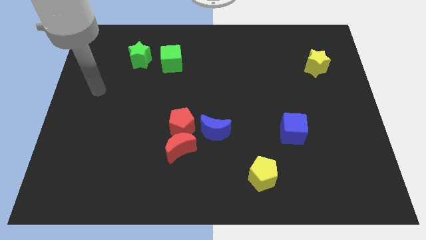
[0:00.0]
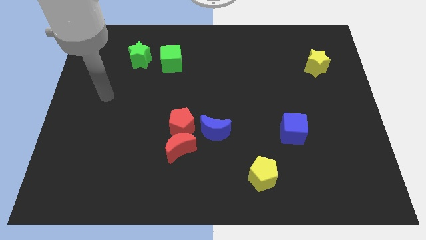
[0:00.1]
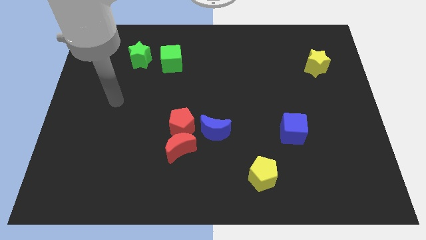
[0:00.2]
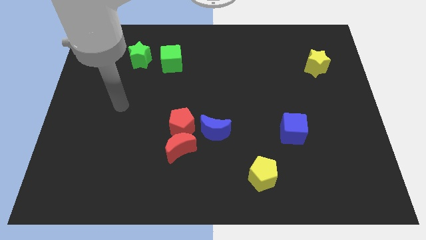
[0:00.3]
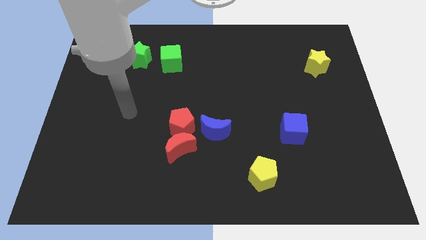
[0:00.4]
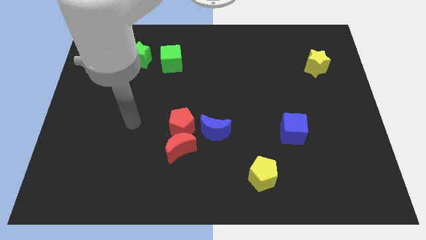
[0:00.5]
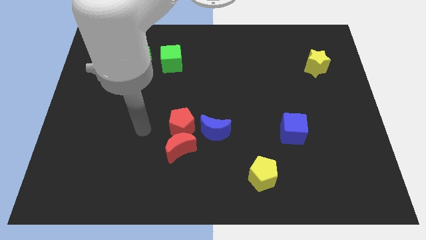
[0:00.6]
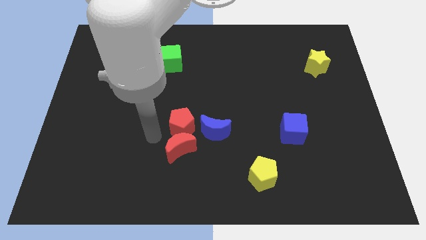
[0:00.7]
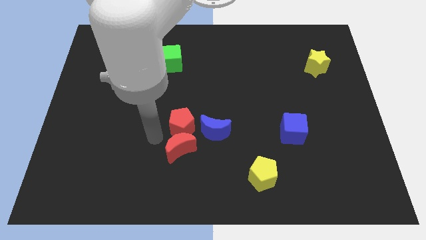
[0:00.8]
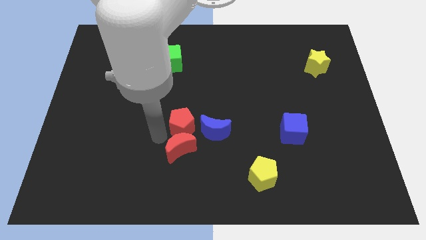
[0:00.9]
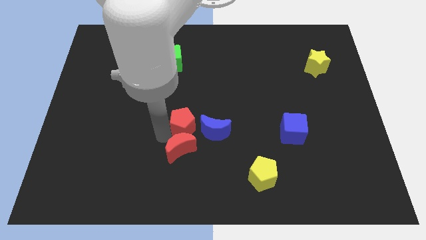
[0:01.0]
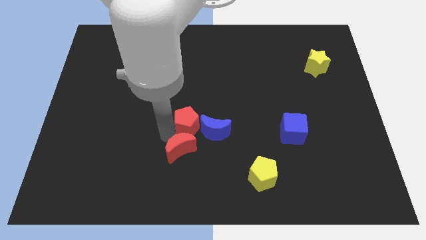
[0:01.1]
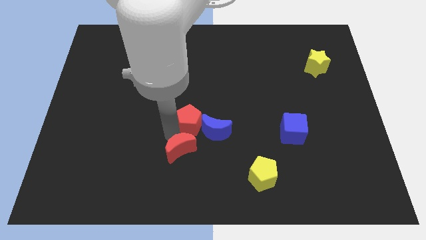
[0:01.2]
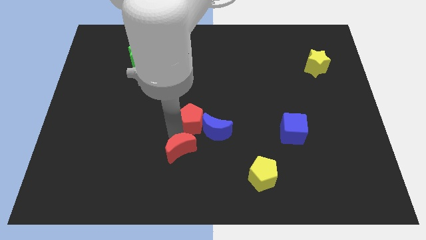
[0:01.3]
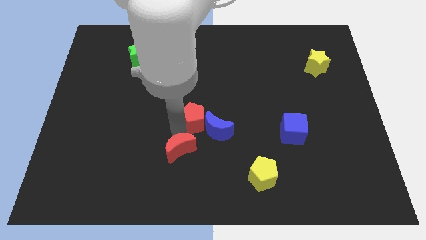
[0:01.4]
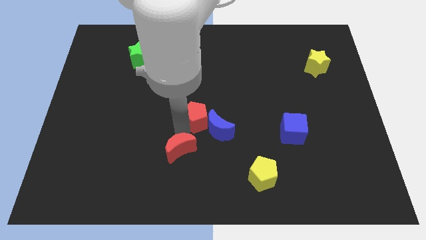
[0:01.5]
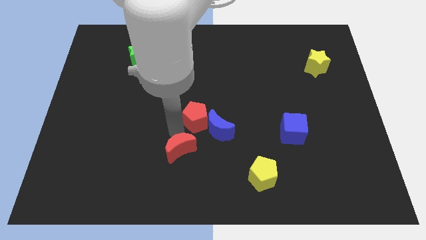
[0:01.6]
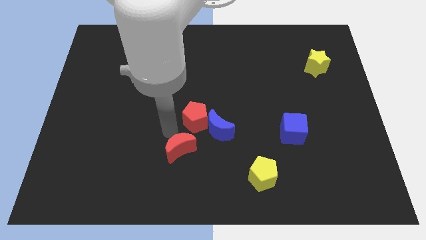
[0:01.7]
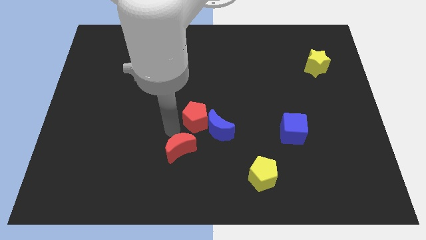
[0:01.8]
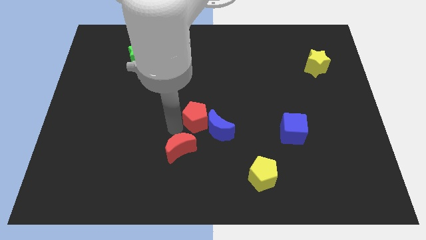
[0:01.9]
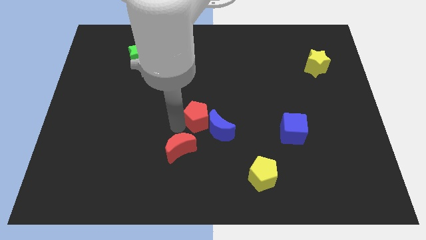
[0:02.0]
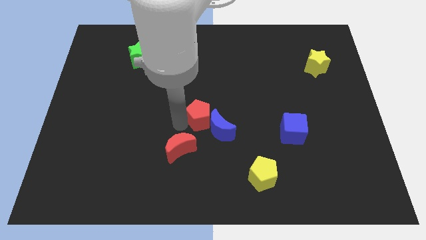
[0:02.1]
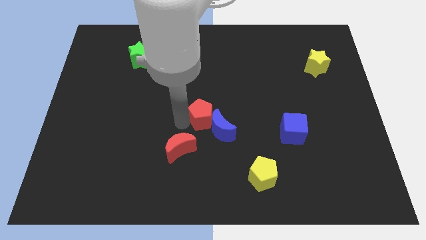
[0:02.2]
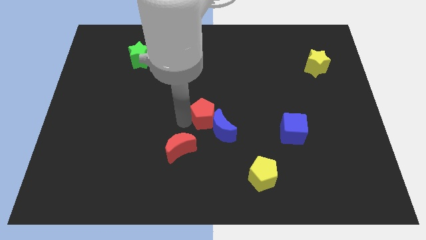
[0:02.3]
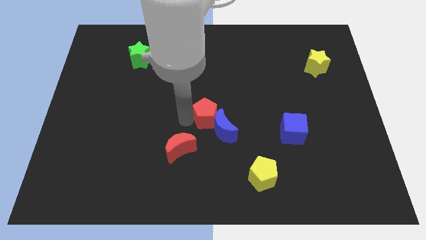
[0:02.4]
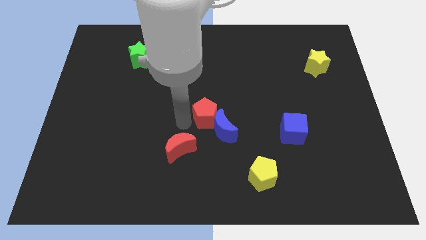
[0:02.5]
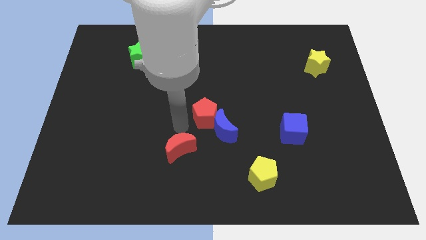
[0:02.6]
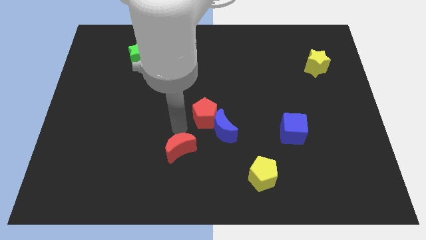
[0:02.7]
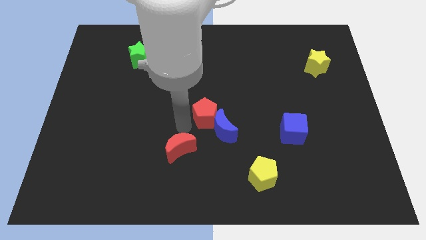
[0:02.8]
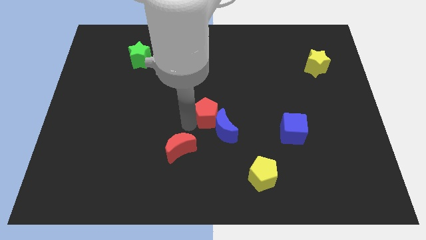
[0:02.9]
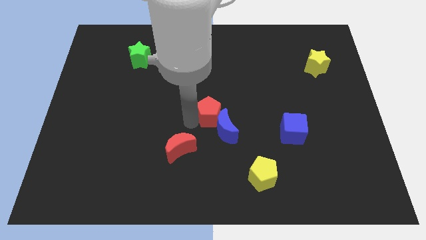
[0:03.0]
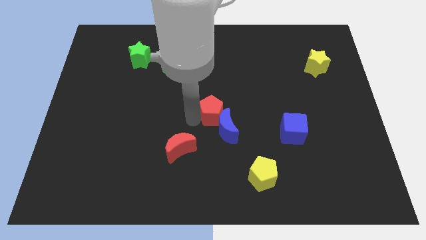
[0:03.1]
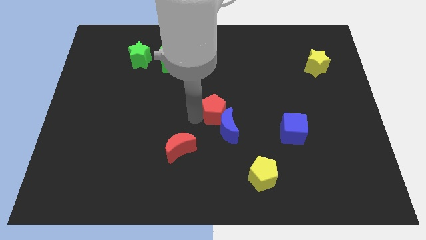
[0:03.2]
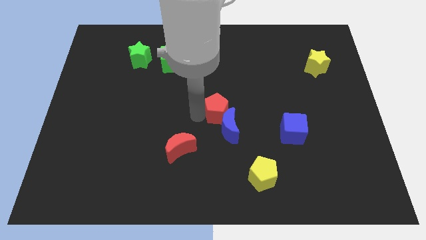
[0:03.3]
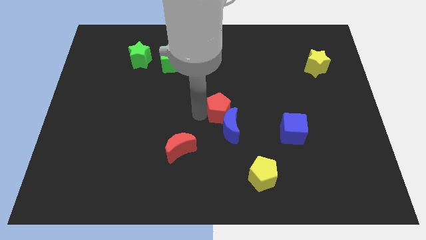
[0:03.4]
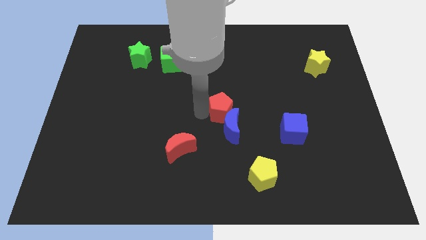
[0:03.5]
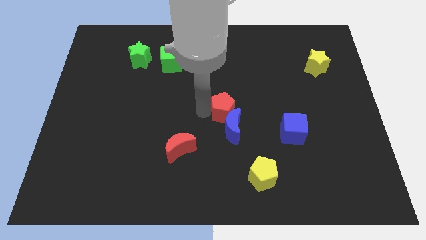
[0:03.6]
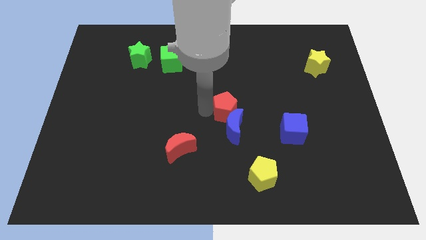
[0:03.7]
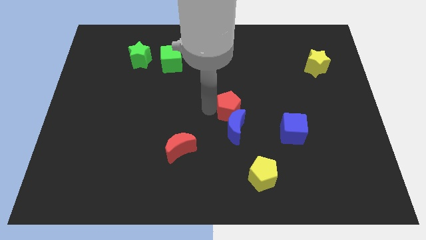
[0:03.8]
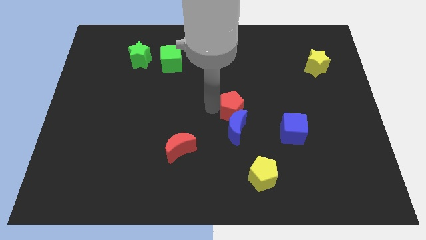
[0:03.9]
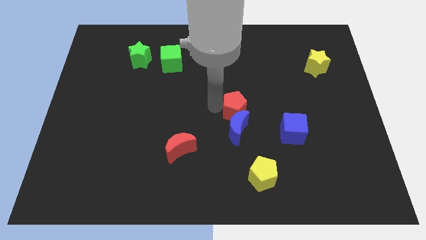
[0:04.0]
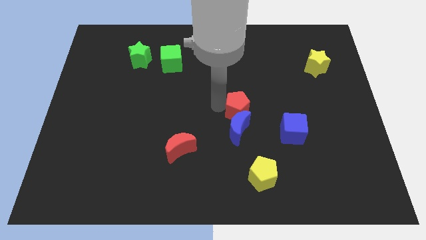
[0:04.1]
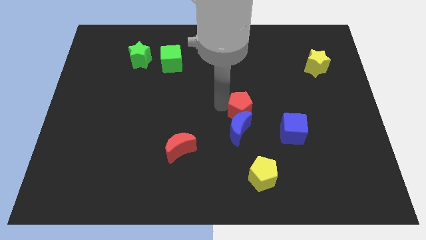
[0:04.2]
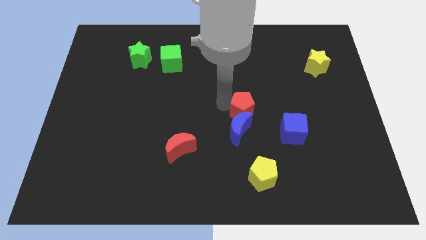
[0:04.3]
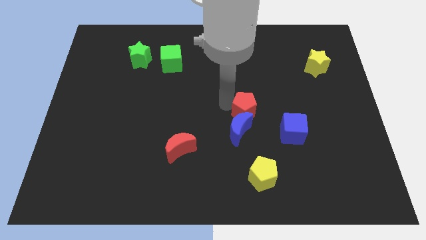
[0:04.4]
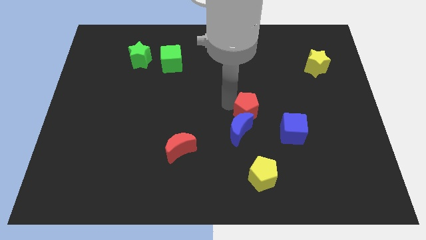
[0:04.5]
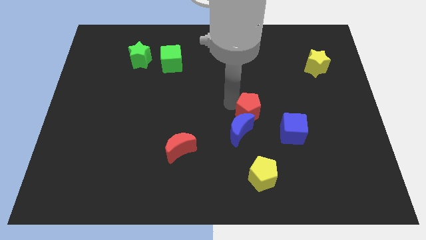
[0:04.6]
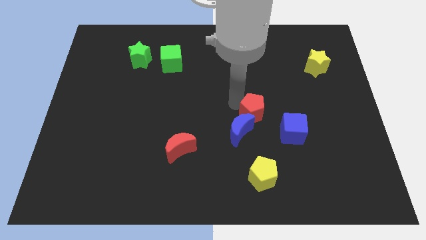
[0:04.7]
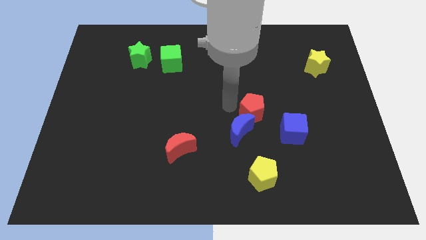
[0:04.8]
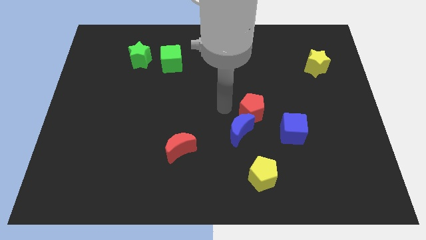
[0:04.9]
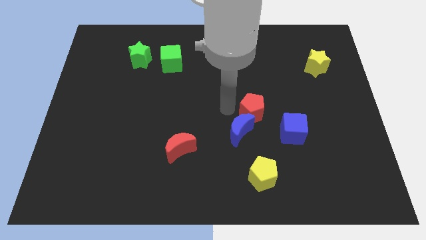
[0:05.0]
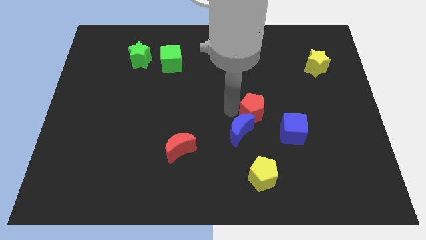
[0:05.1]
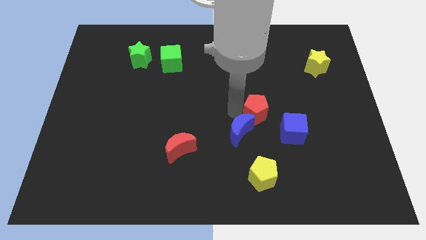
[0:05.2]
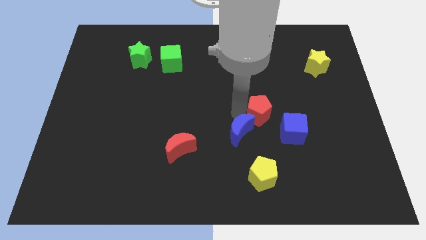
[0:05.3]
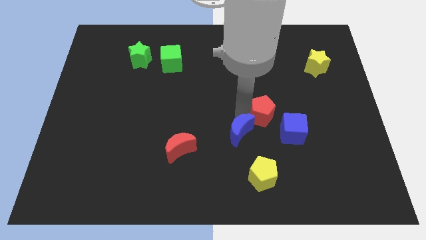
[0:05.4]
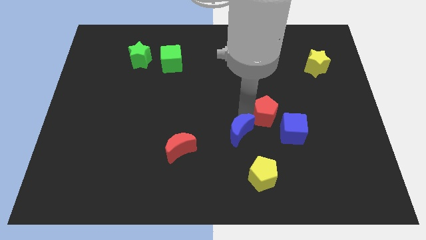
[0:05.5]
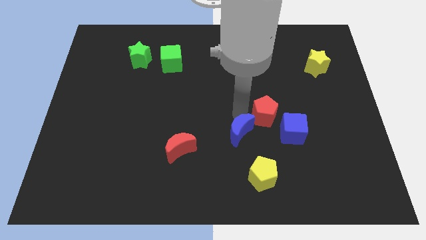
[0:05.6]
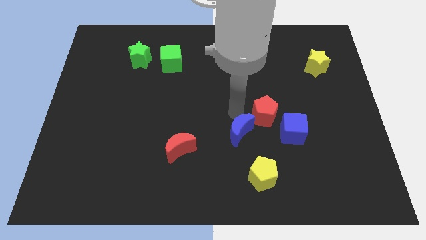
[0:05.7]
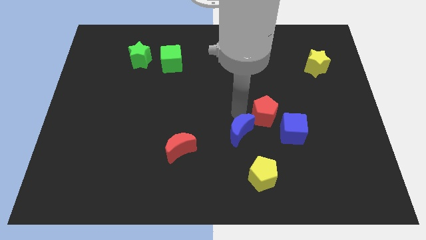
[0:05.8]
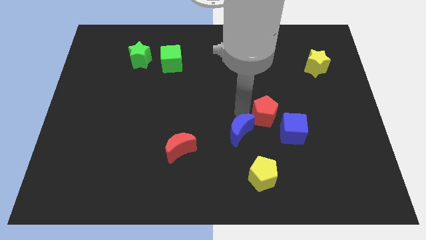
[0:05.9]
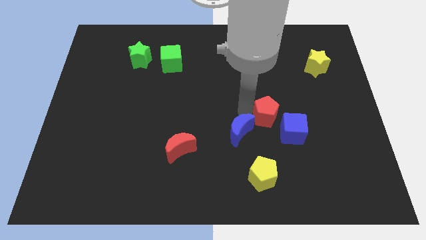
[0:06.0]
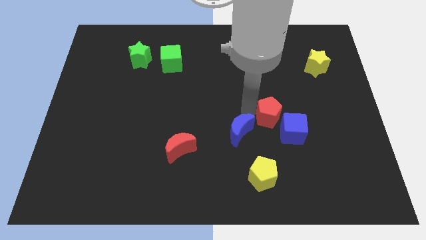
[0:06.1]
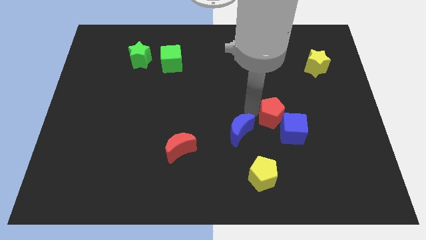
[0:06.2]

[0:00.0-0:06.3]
push the red pentagon to the right

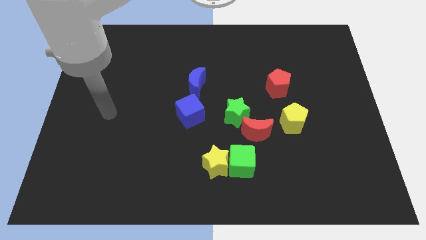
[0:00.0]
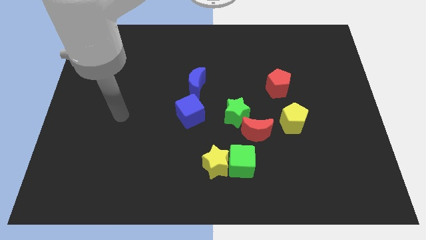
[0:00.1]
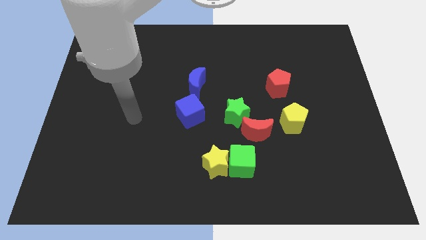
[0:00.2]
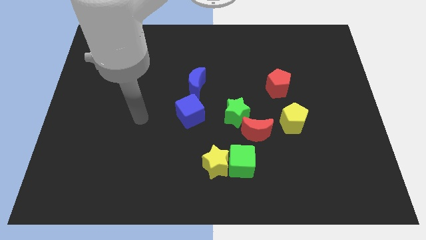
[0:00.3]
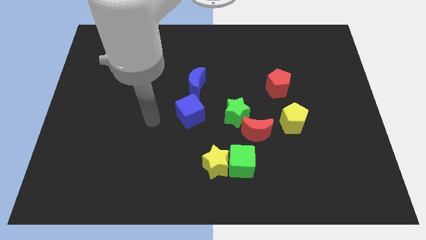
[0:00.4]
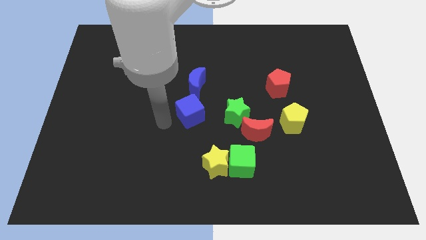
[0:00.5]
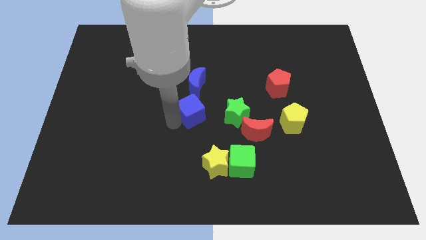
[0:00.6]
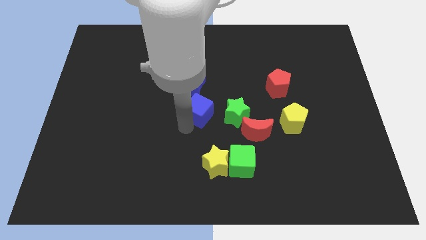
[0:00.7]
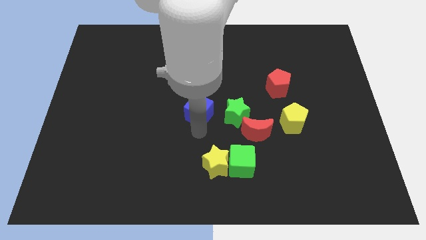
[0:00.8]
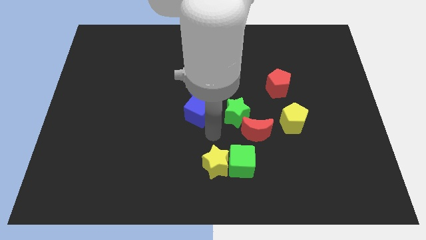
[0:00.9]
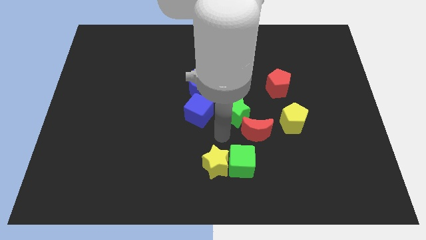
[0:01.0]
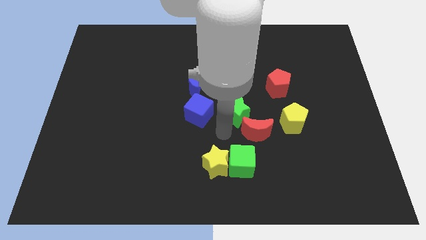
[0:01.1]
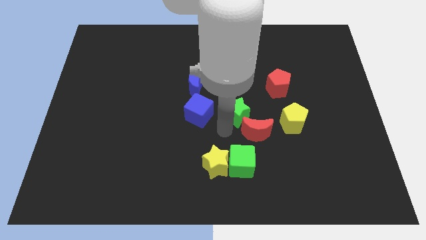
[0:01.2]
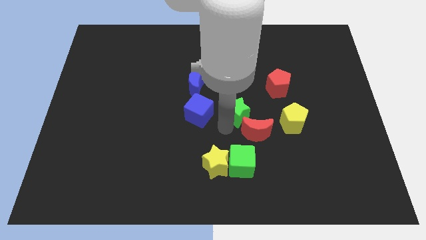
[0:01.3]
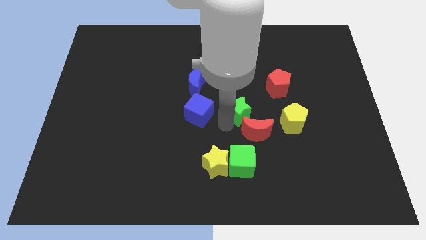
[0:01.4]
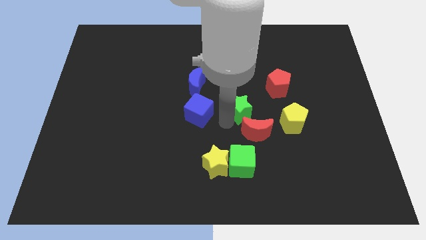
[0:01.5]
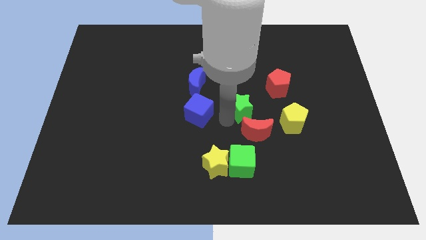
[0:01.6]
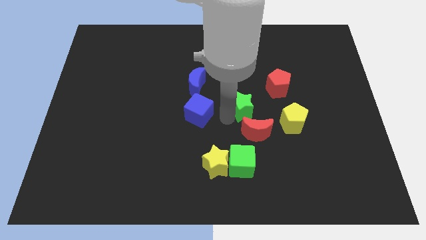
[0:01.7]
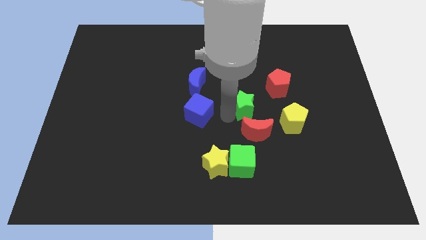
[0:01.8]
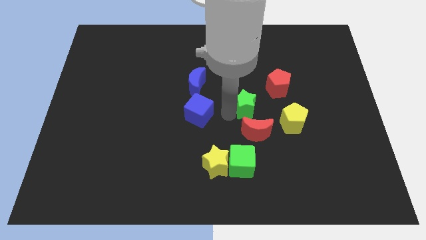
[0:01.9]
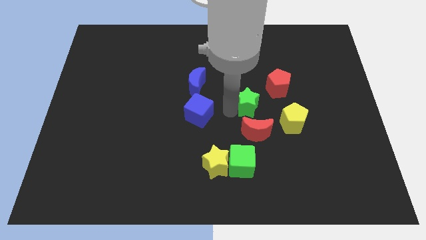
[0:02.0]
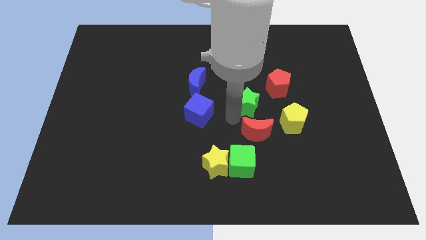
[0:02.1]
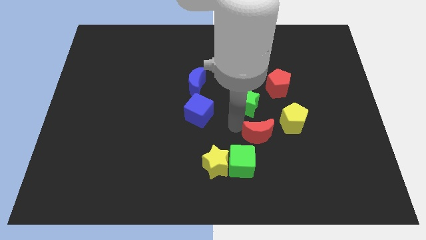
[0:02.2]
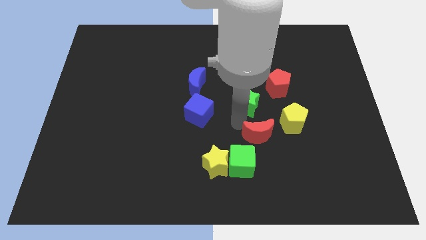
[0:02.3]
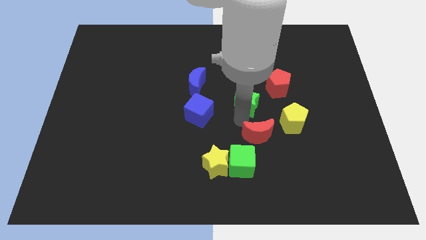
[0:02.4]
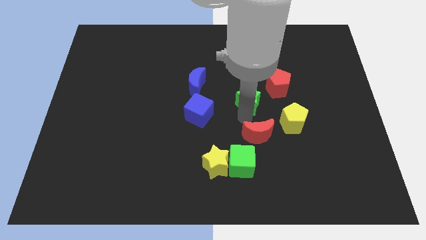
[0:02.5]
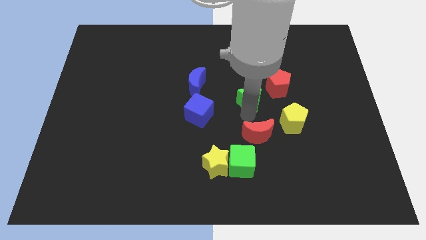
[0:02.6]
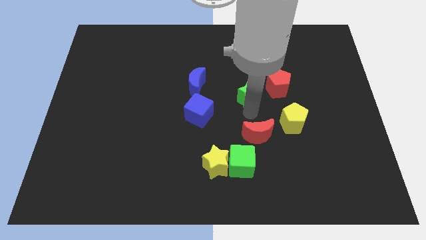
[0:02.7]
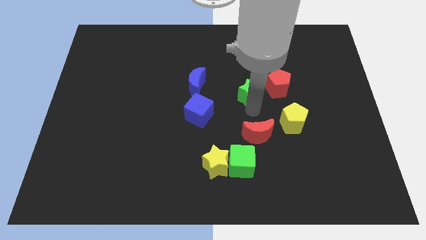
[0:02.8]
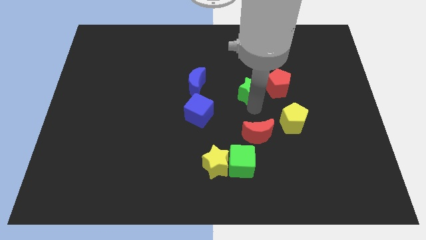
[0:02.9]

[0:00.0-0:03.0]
slide the green star up and to the right a little bit
